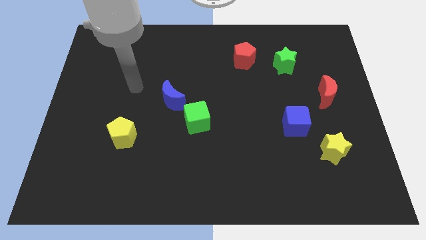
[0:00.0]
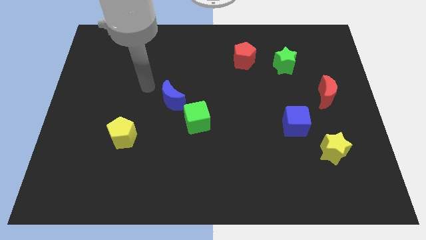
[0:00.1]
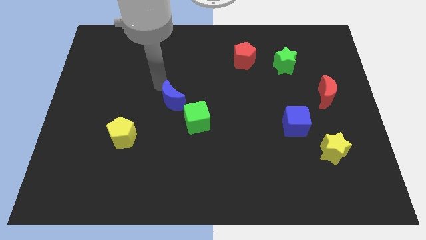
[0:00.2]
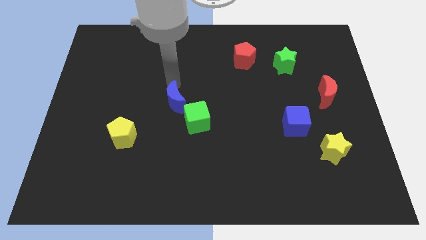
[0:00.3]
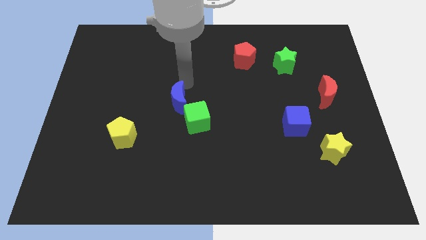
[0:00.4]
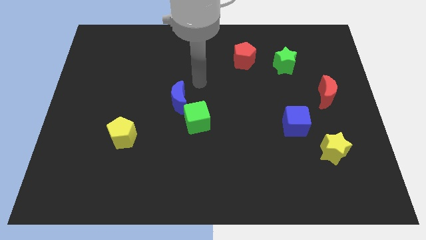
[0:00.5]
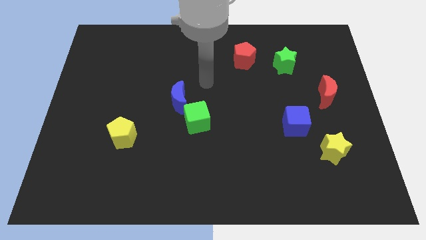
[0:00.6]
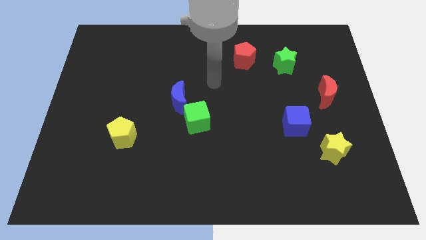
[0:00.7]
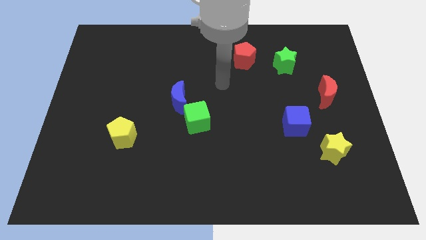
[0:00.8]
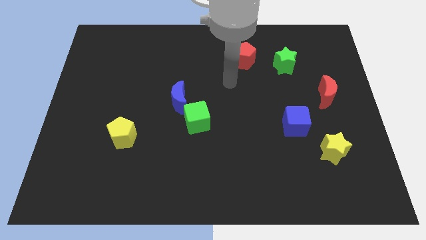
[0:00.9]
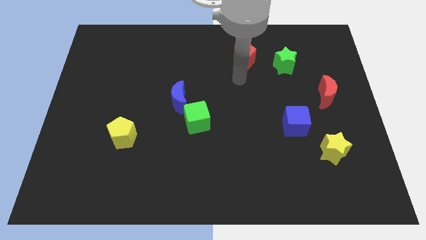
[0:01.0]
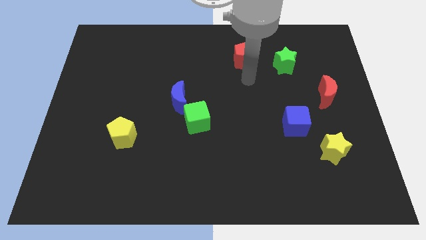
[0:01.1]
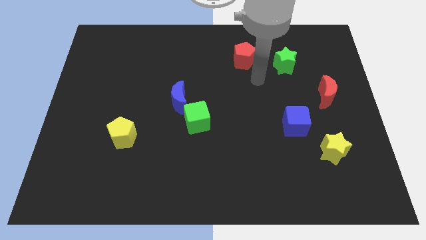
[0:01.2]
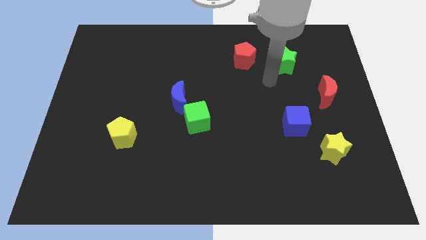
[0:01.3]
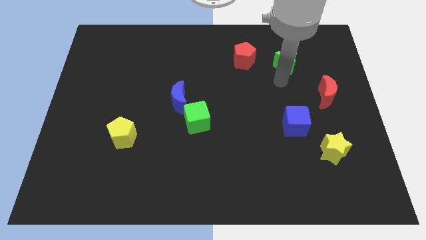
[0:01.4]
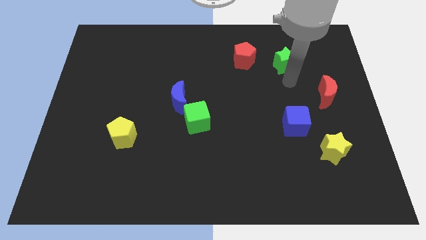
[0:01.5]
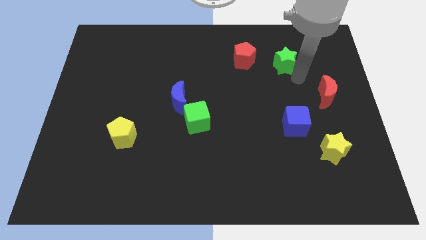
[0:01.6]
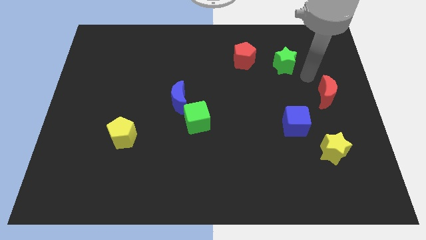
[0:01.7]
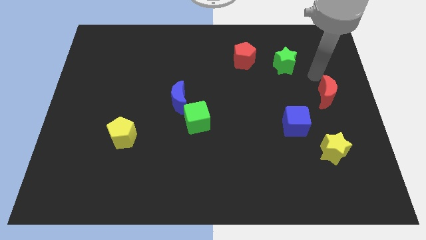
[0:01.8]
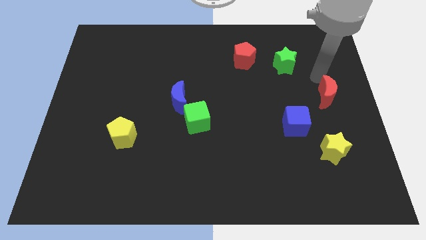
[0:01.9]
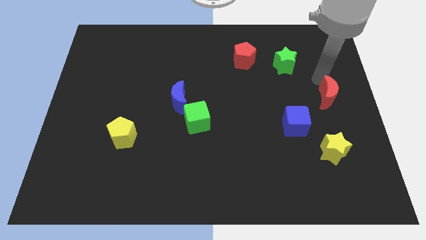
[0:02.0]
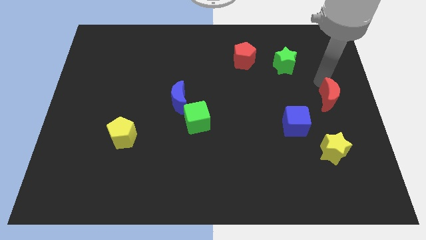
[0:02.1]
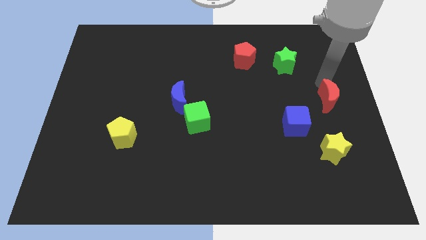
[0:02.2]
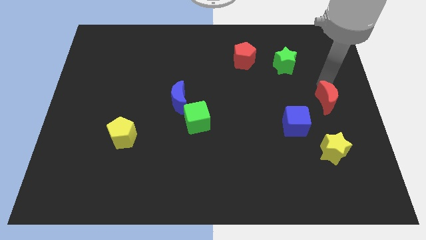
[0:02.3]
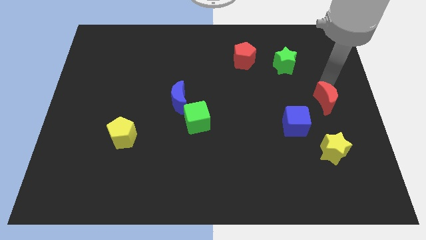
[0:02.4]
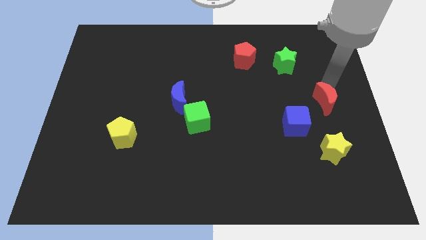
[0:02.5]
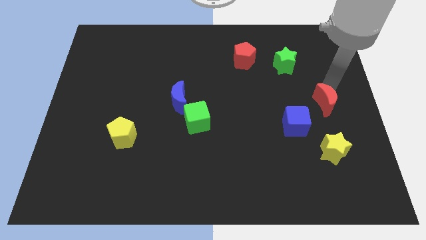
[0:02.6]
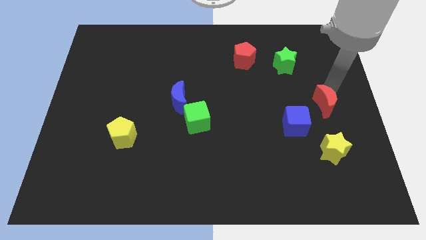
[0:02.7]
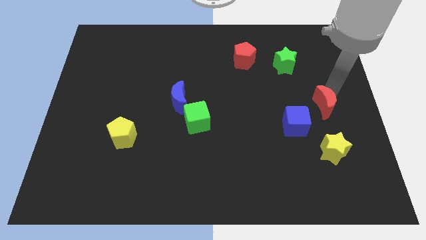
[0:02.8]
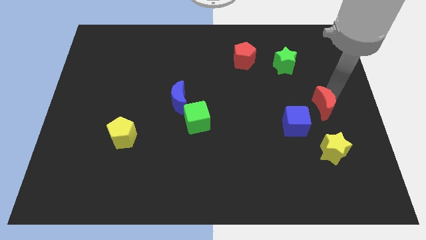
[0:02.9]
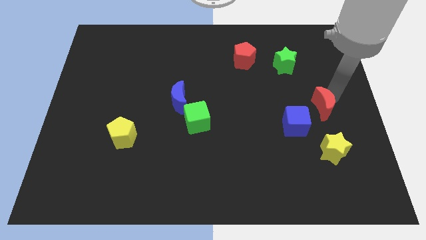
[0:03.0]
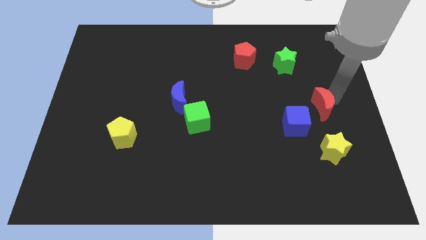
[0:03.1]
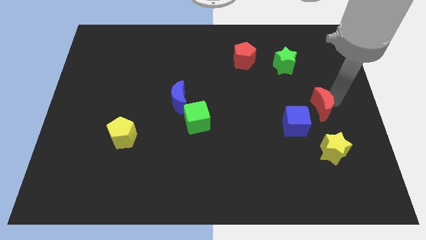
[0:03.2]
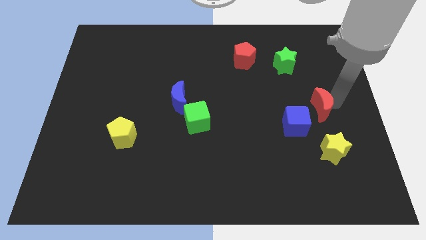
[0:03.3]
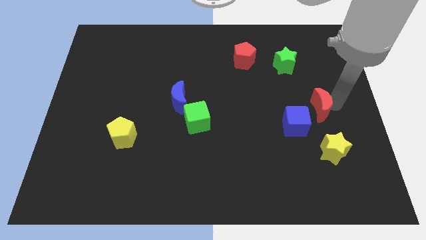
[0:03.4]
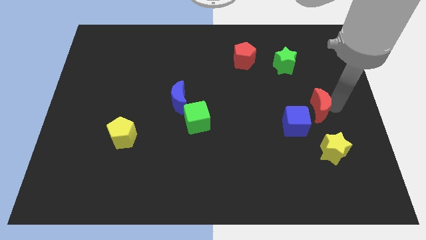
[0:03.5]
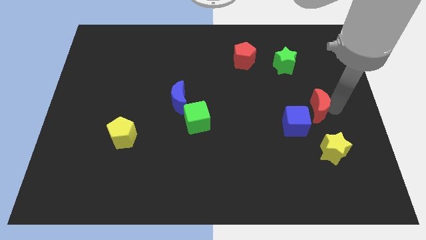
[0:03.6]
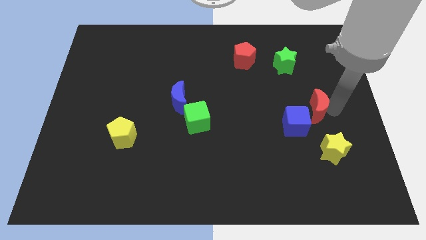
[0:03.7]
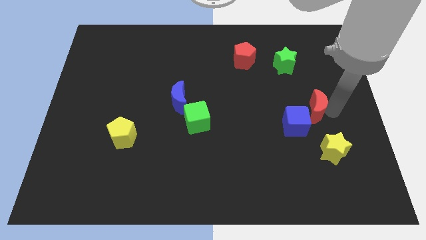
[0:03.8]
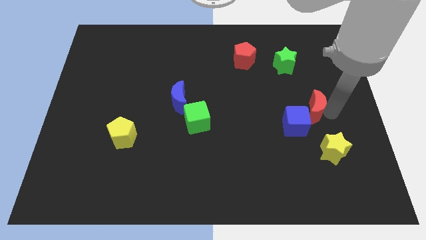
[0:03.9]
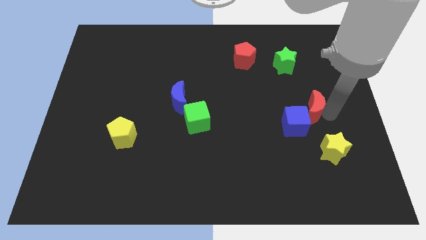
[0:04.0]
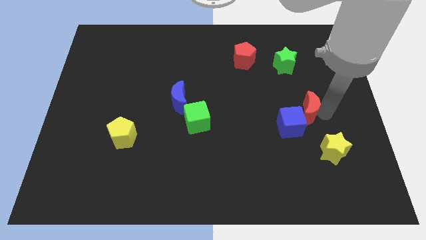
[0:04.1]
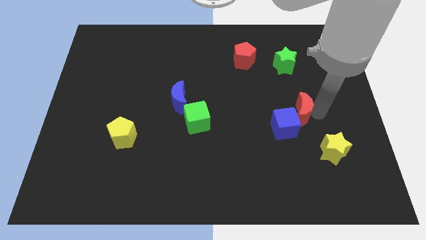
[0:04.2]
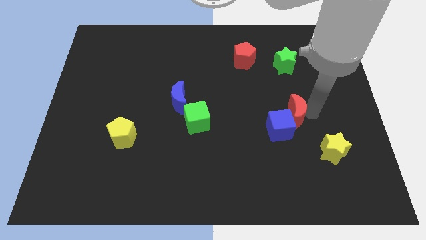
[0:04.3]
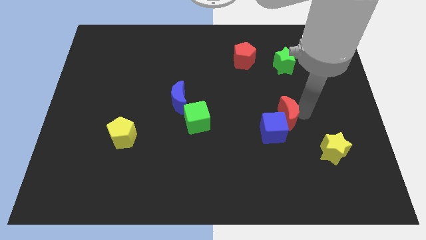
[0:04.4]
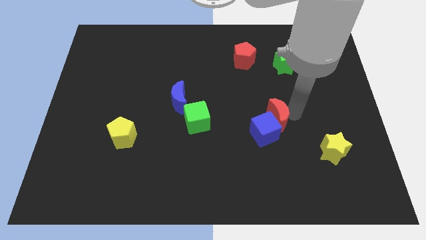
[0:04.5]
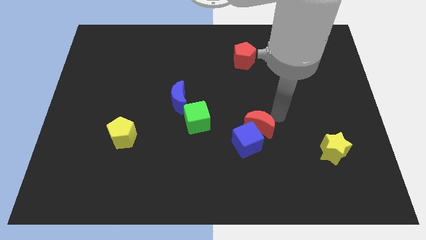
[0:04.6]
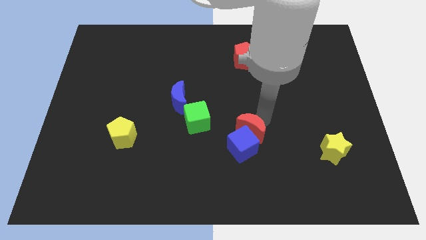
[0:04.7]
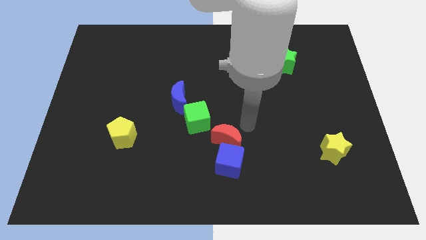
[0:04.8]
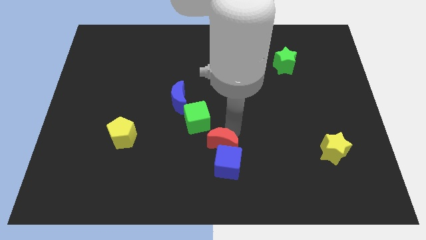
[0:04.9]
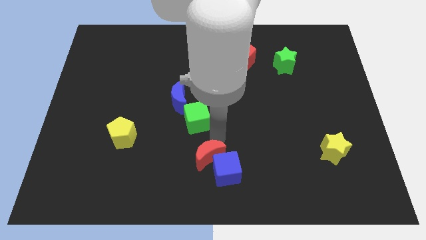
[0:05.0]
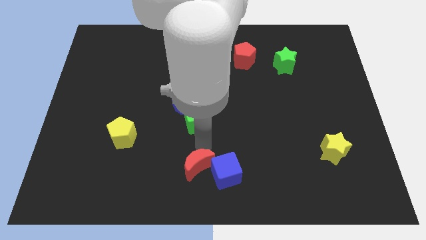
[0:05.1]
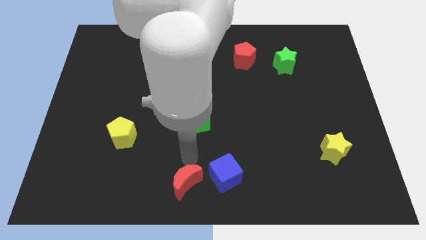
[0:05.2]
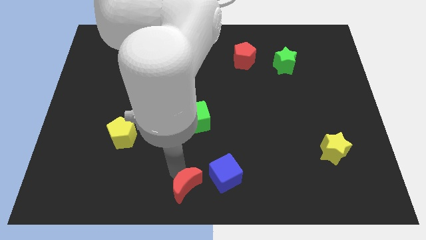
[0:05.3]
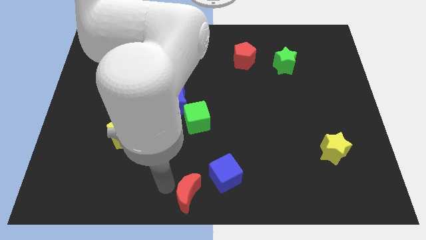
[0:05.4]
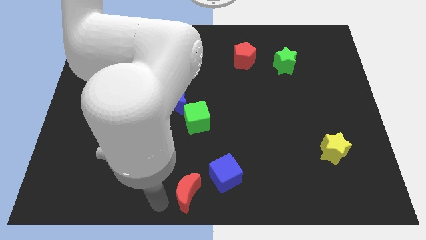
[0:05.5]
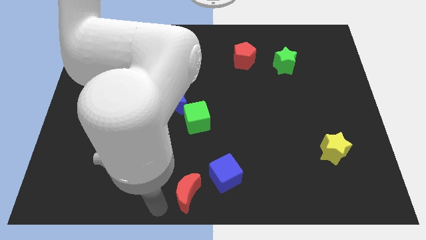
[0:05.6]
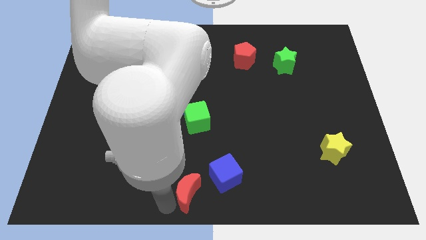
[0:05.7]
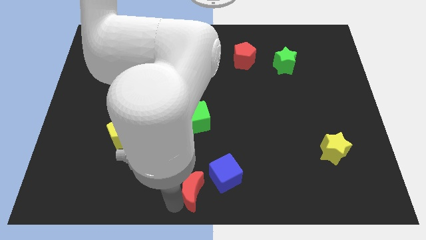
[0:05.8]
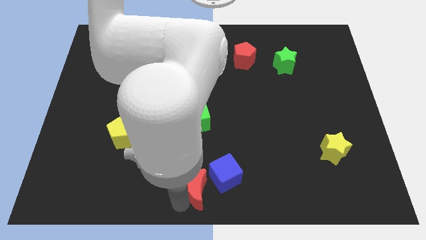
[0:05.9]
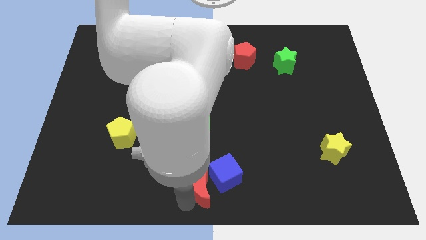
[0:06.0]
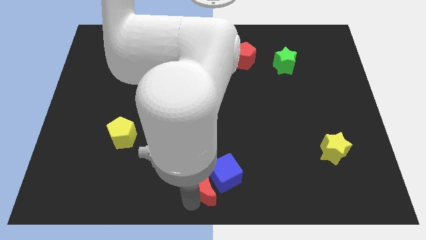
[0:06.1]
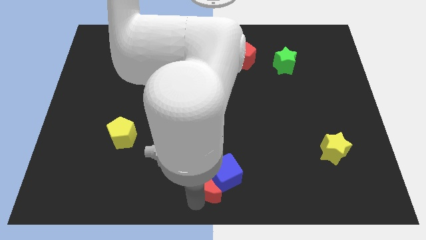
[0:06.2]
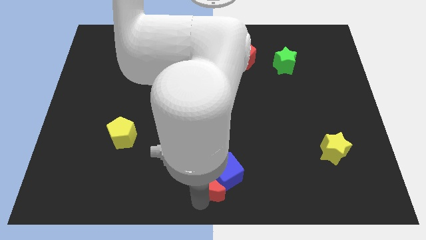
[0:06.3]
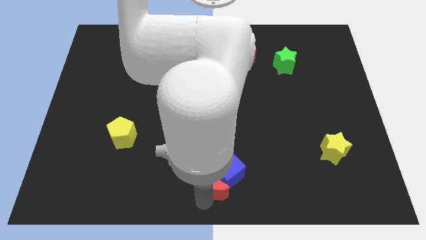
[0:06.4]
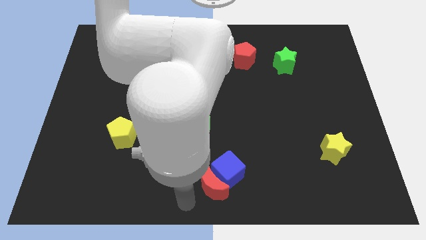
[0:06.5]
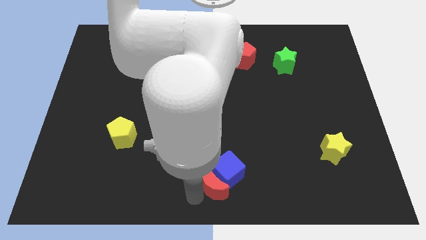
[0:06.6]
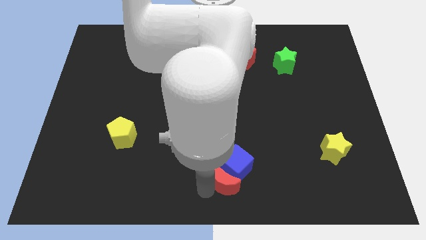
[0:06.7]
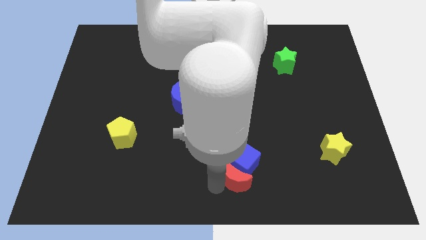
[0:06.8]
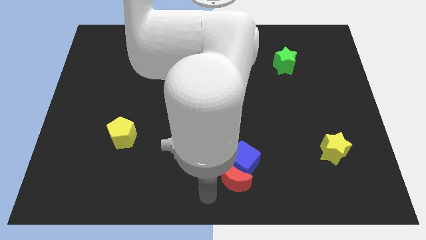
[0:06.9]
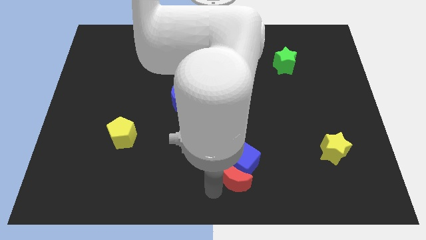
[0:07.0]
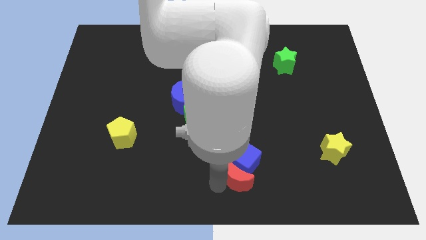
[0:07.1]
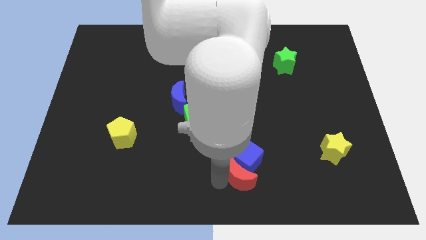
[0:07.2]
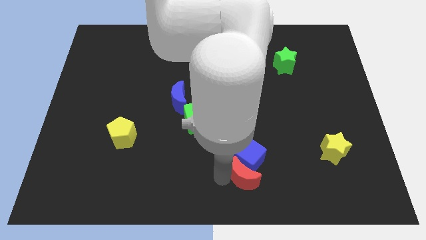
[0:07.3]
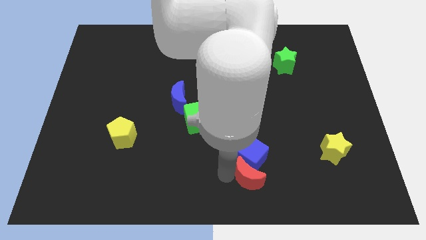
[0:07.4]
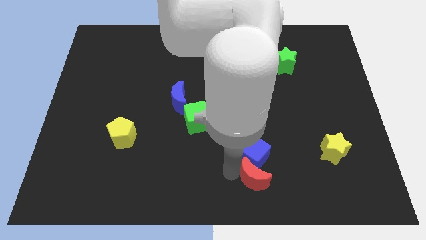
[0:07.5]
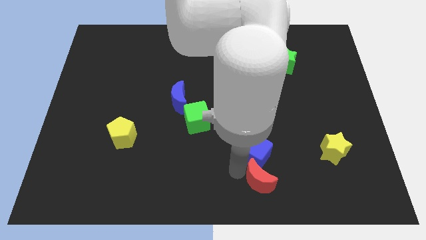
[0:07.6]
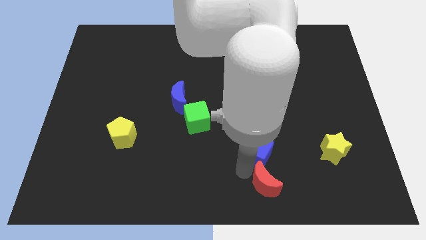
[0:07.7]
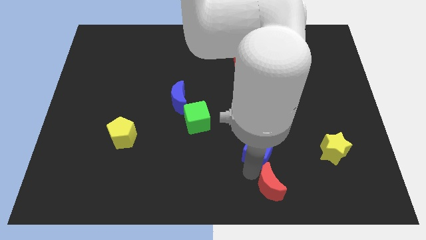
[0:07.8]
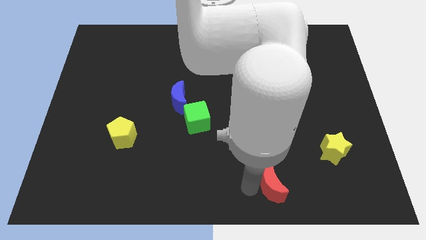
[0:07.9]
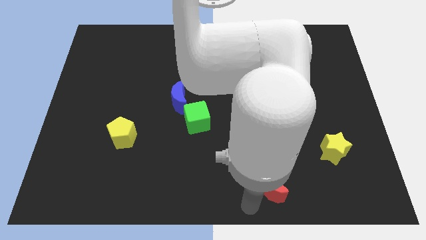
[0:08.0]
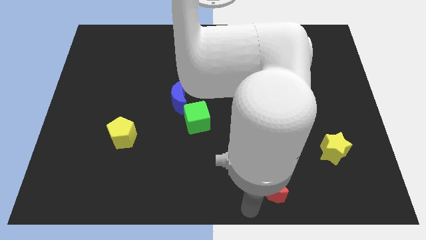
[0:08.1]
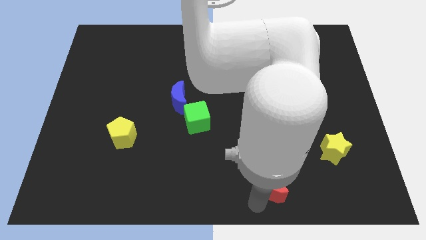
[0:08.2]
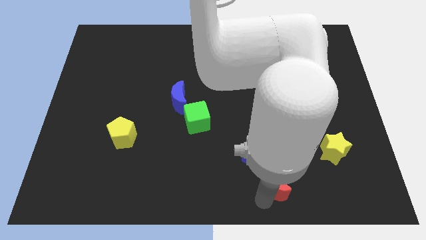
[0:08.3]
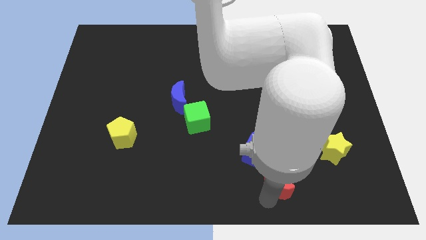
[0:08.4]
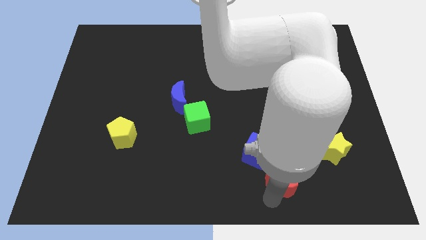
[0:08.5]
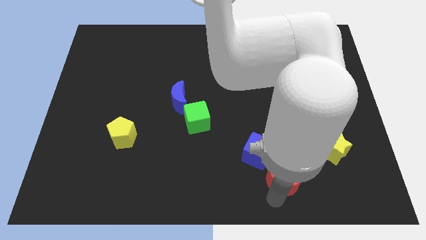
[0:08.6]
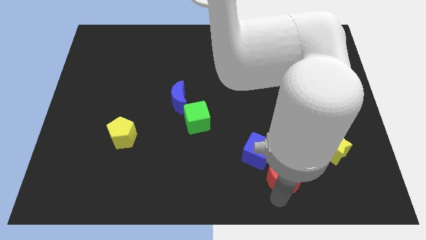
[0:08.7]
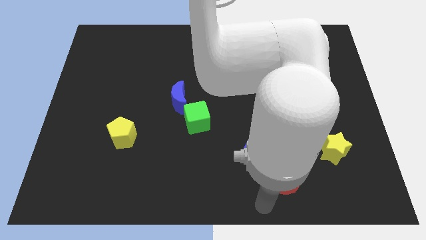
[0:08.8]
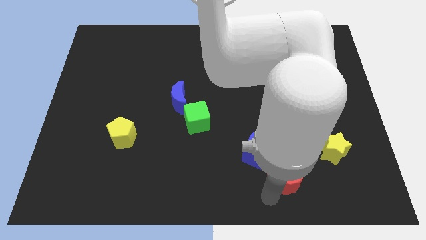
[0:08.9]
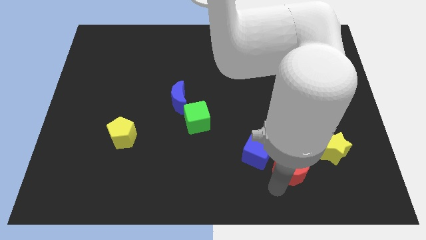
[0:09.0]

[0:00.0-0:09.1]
move the red moon downwards a bit
